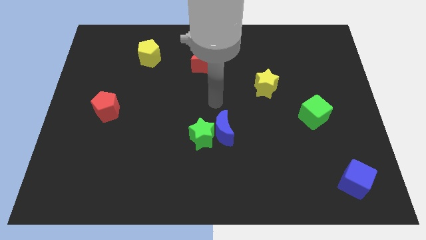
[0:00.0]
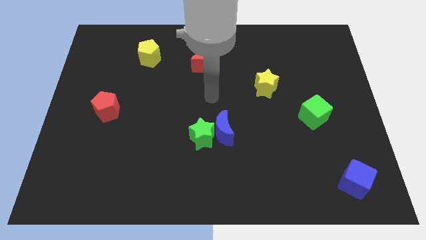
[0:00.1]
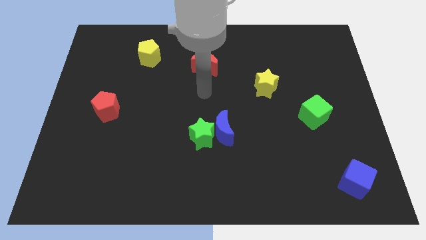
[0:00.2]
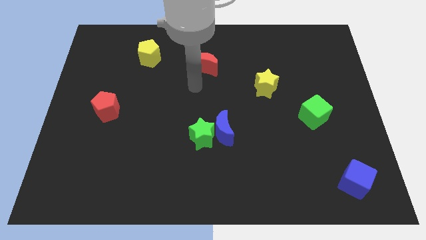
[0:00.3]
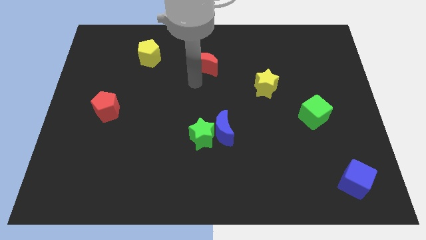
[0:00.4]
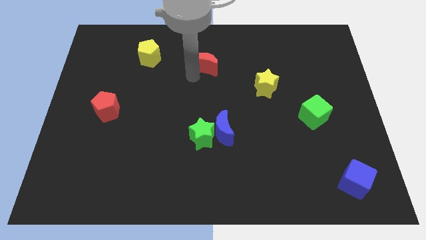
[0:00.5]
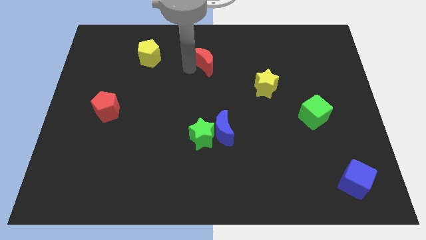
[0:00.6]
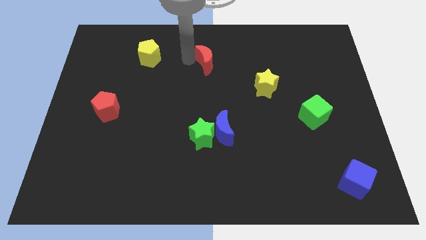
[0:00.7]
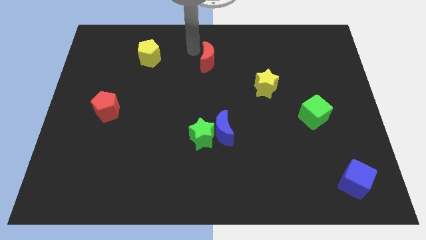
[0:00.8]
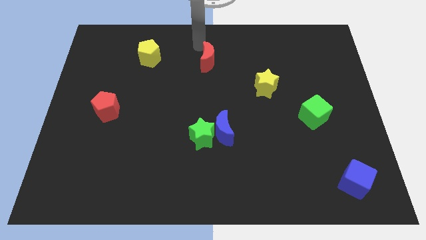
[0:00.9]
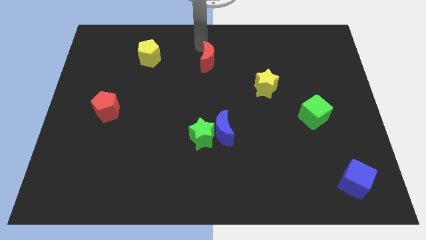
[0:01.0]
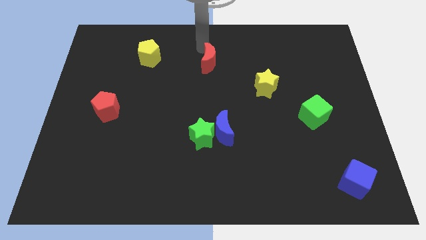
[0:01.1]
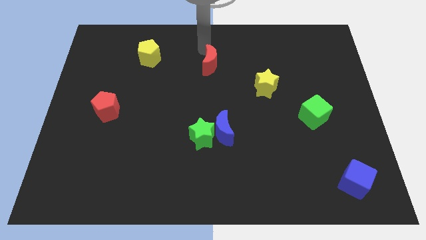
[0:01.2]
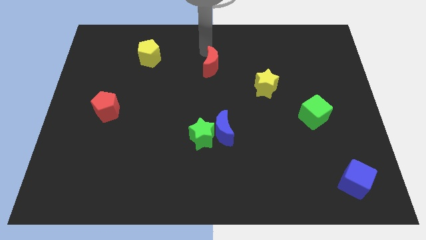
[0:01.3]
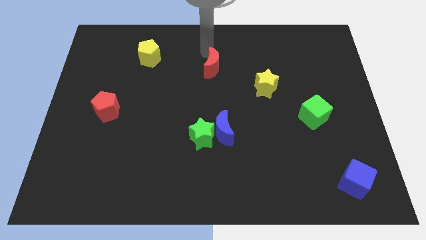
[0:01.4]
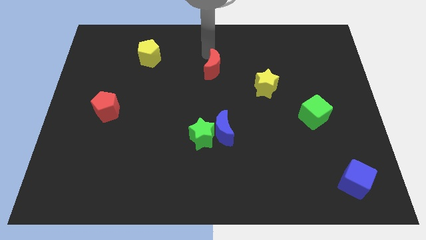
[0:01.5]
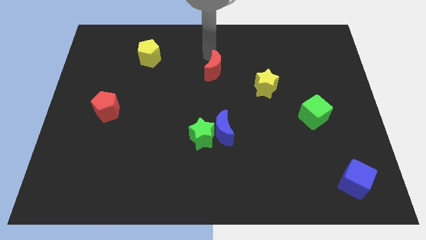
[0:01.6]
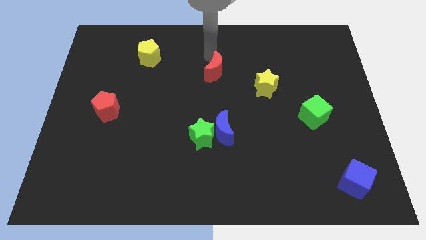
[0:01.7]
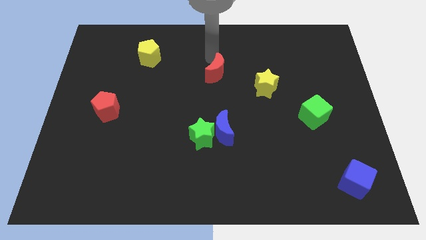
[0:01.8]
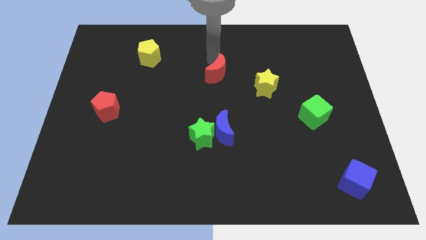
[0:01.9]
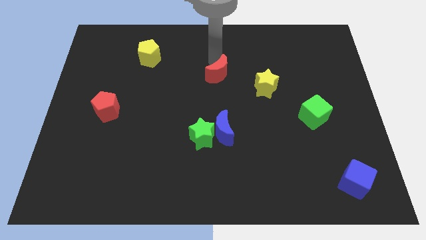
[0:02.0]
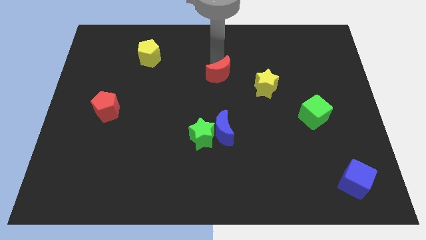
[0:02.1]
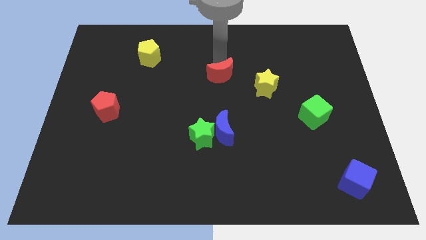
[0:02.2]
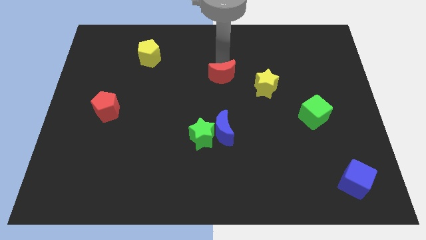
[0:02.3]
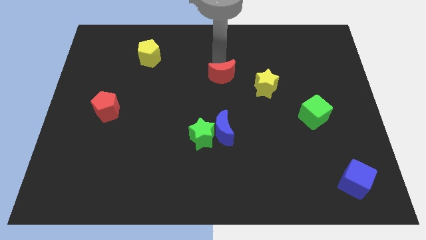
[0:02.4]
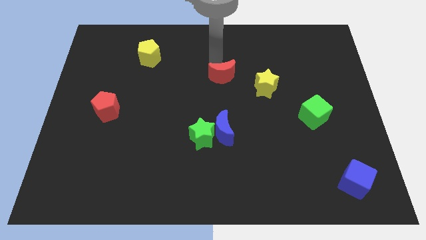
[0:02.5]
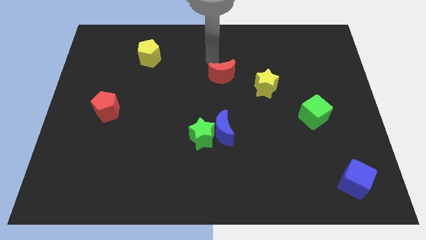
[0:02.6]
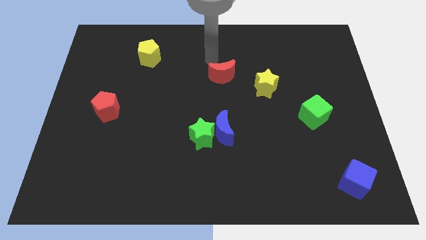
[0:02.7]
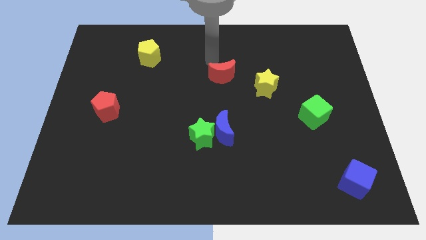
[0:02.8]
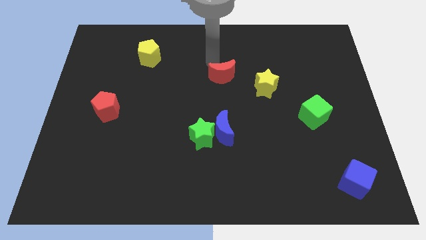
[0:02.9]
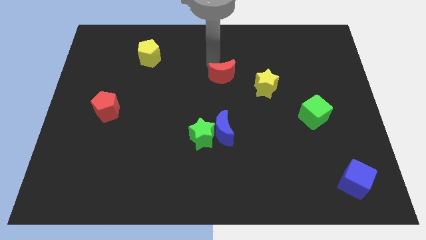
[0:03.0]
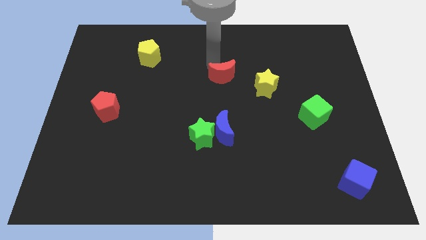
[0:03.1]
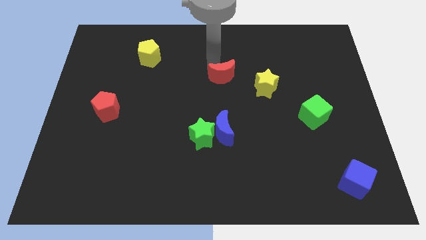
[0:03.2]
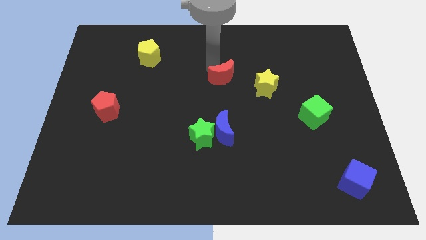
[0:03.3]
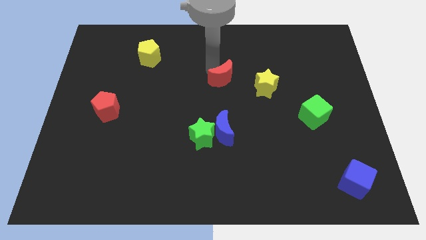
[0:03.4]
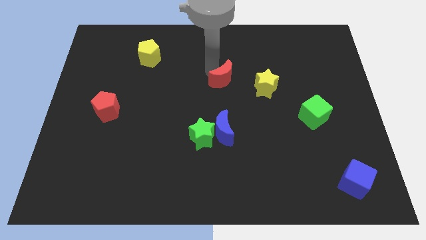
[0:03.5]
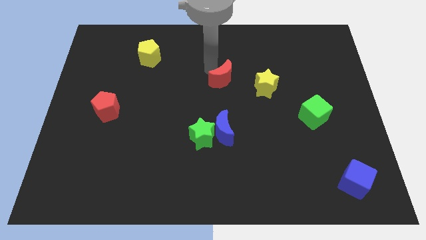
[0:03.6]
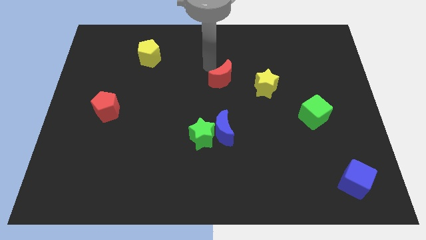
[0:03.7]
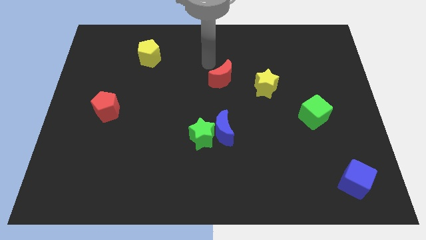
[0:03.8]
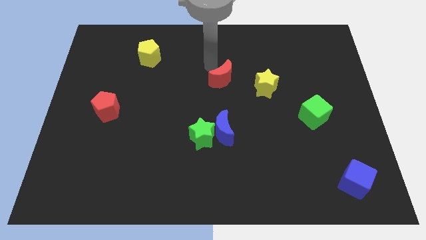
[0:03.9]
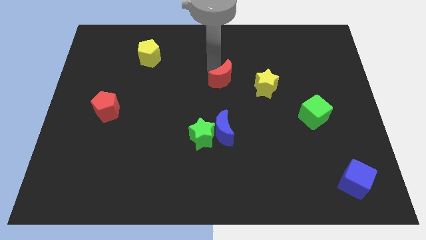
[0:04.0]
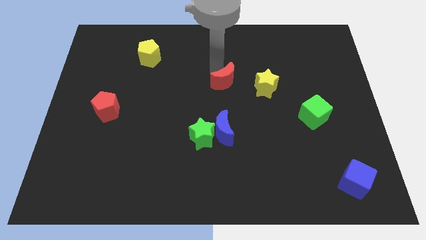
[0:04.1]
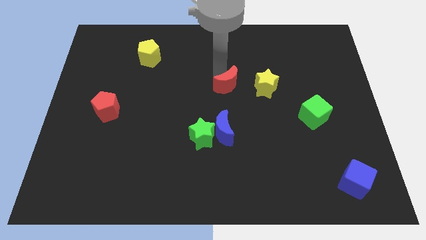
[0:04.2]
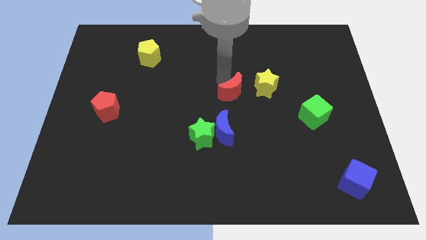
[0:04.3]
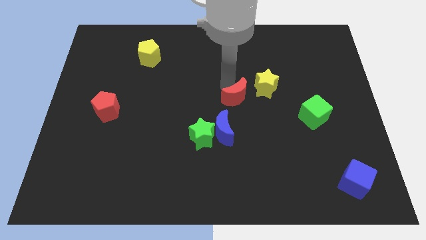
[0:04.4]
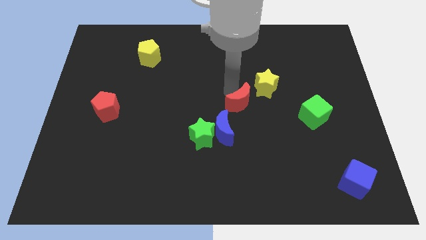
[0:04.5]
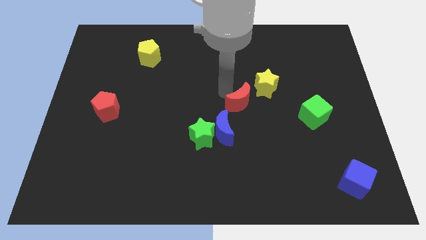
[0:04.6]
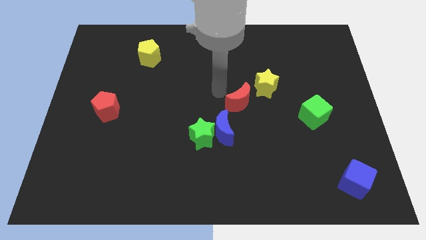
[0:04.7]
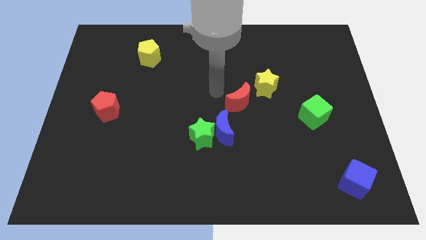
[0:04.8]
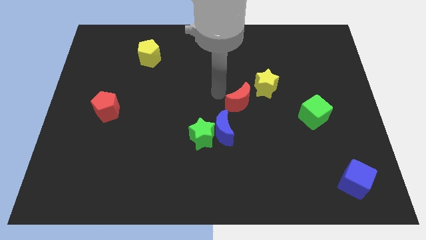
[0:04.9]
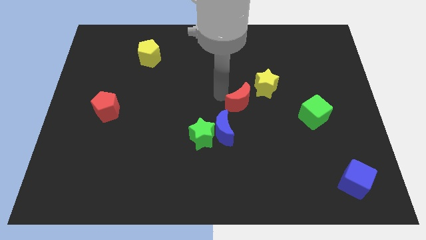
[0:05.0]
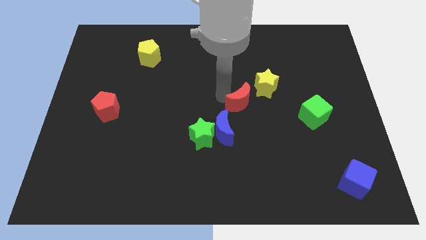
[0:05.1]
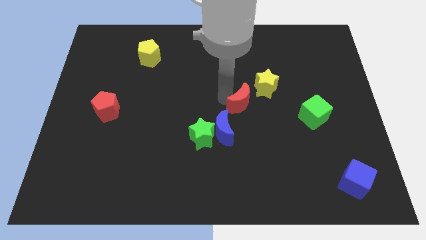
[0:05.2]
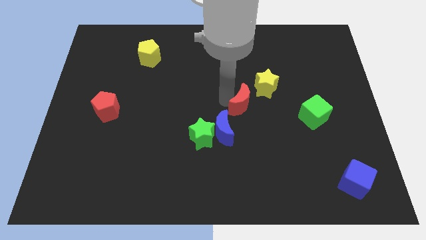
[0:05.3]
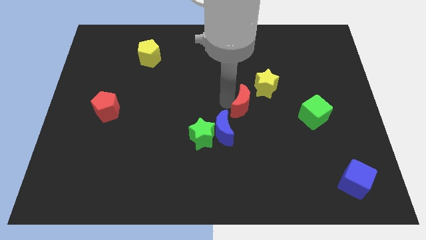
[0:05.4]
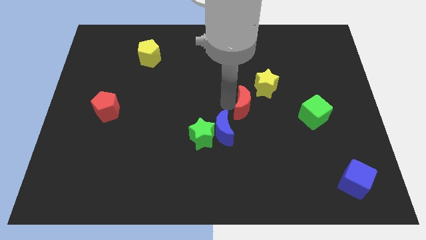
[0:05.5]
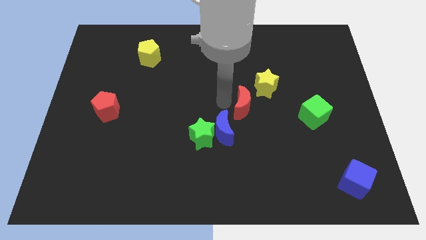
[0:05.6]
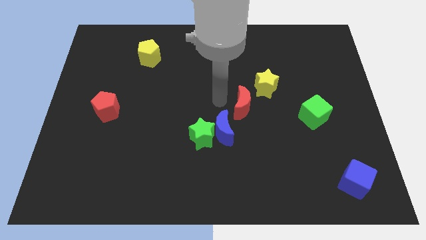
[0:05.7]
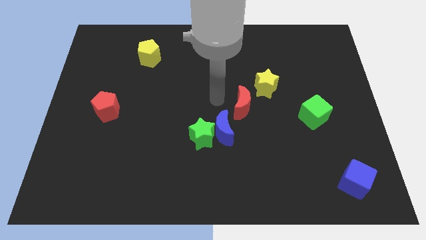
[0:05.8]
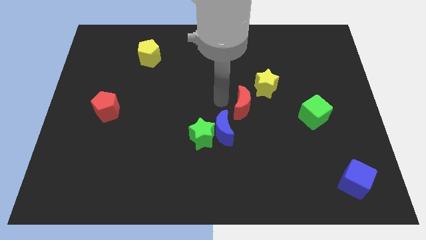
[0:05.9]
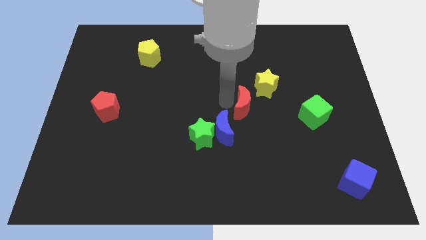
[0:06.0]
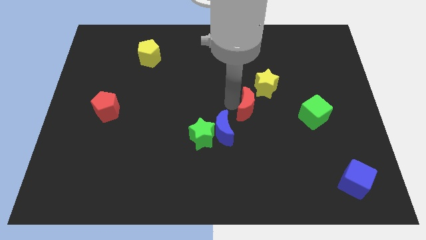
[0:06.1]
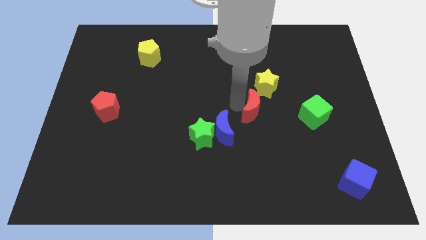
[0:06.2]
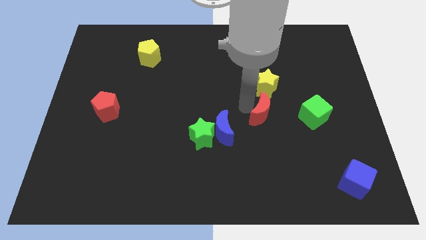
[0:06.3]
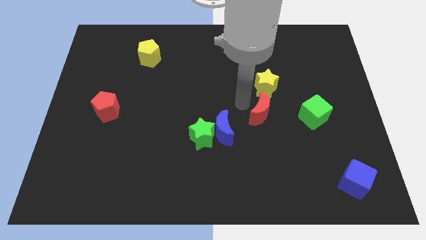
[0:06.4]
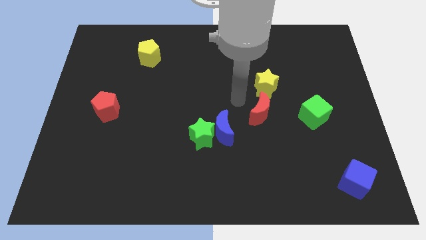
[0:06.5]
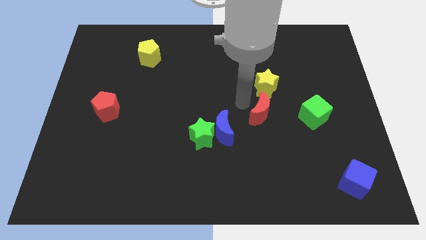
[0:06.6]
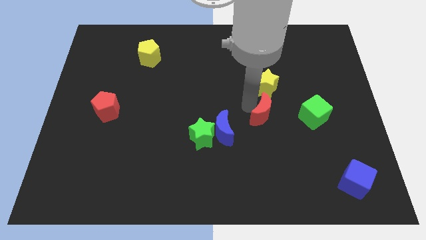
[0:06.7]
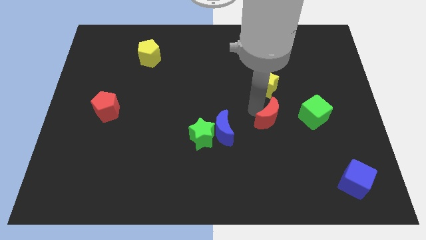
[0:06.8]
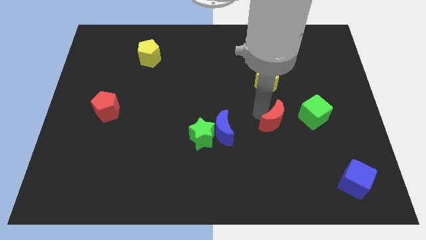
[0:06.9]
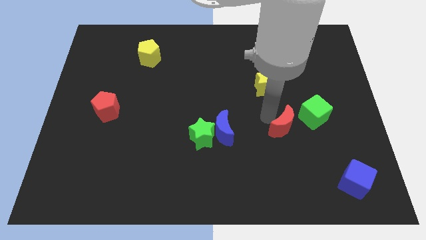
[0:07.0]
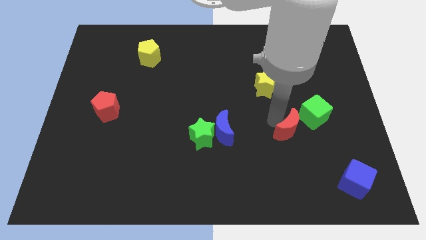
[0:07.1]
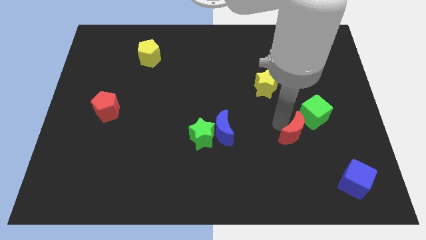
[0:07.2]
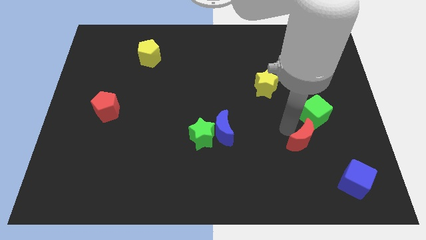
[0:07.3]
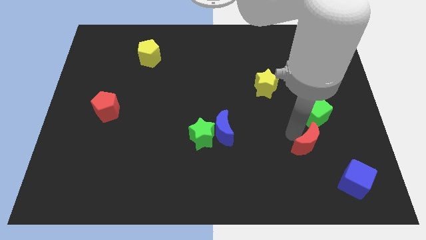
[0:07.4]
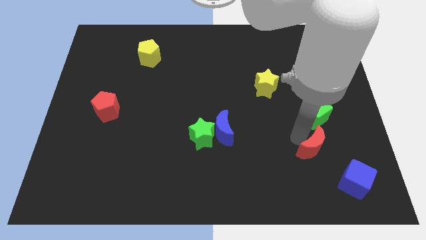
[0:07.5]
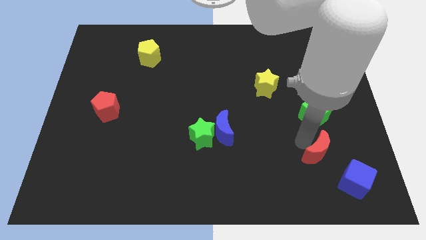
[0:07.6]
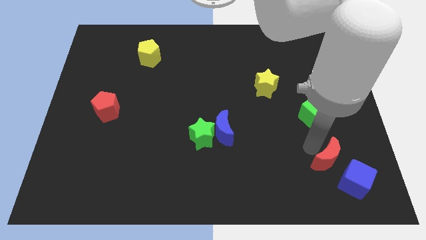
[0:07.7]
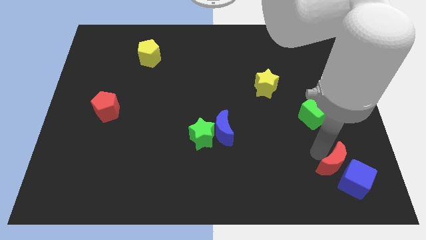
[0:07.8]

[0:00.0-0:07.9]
slide the red moon to the blue cube
